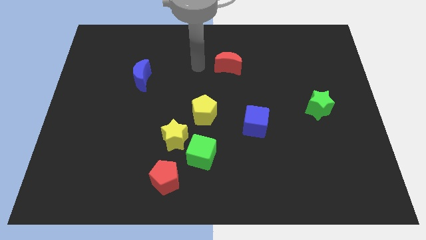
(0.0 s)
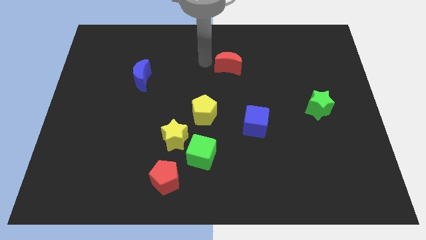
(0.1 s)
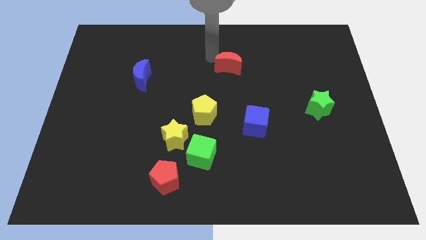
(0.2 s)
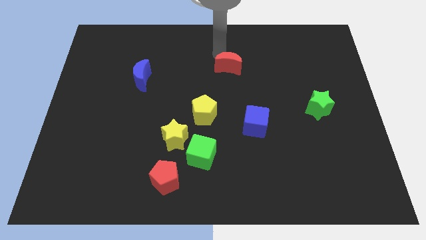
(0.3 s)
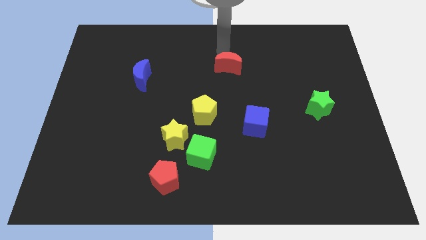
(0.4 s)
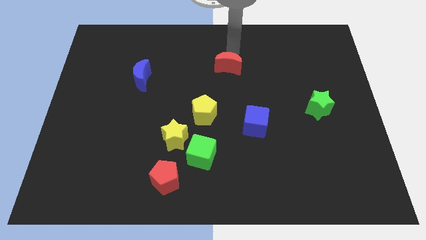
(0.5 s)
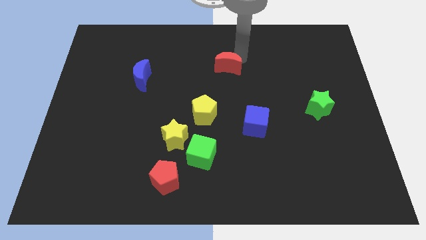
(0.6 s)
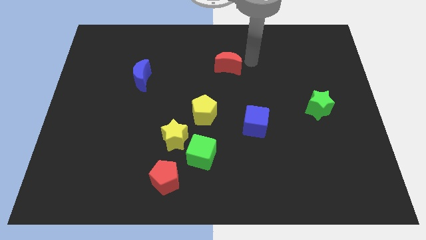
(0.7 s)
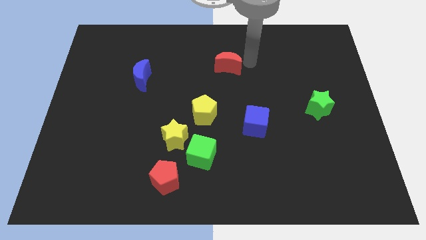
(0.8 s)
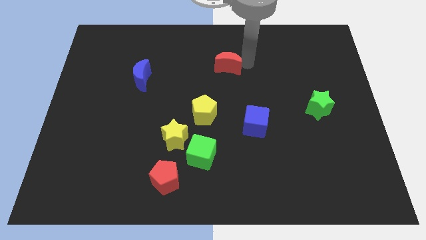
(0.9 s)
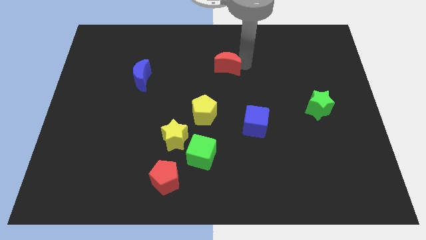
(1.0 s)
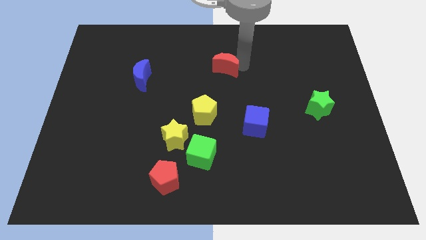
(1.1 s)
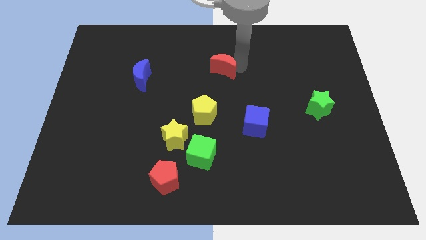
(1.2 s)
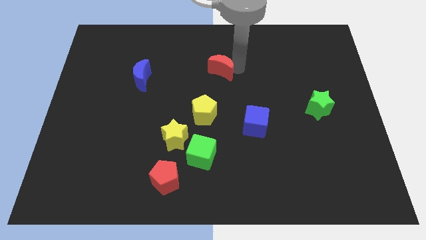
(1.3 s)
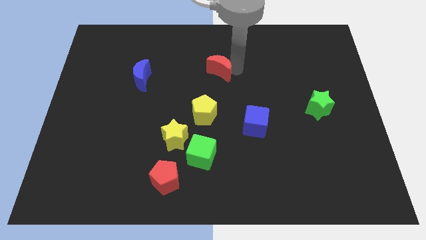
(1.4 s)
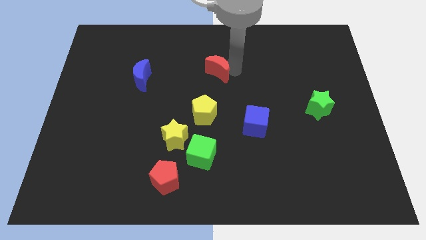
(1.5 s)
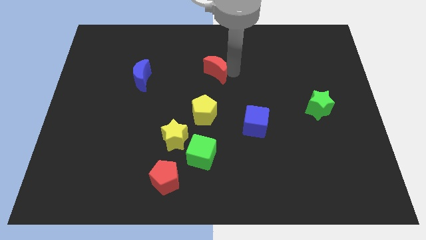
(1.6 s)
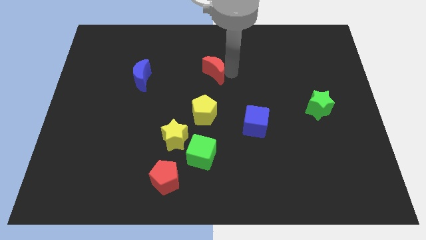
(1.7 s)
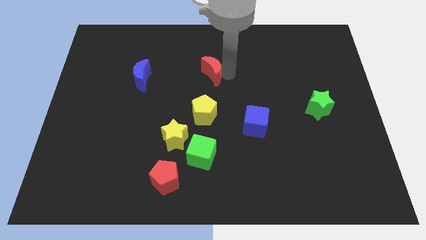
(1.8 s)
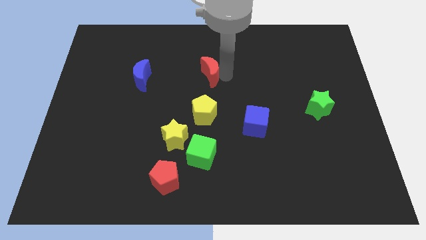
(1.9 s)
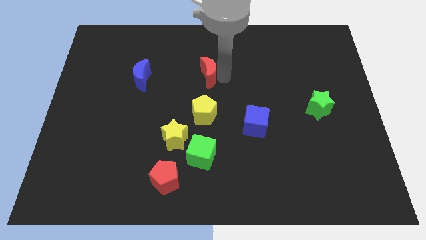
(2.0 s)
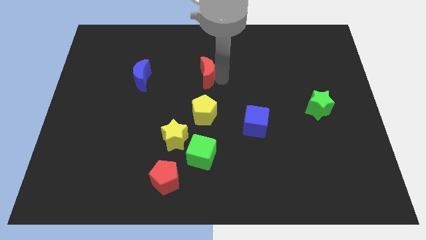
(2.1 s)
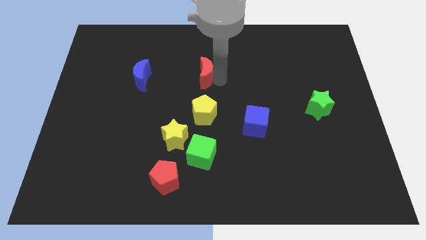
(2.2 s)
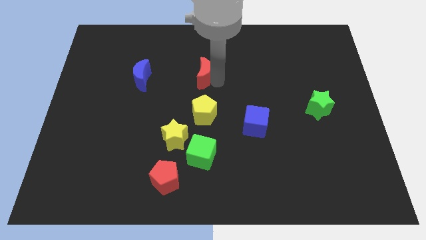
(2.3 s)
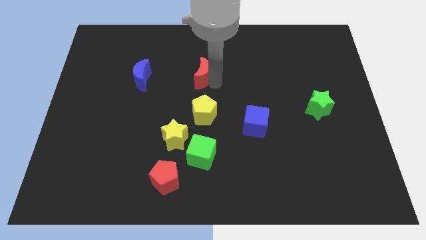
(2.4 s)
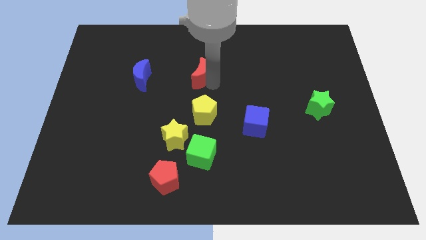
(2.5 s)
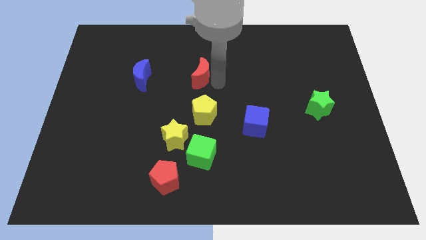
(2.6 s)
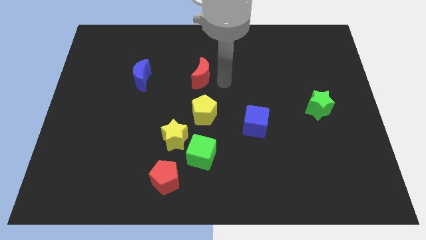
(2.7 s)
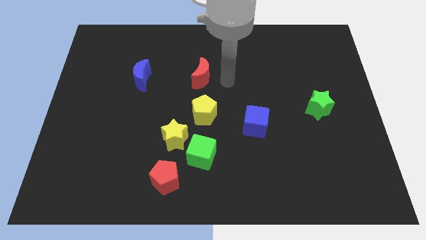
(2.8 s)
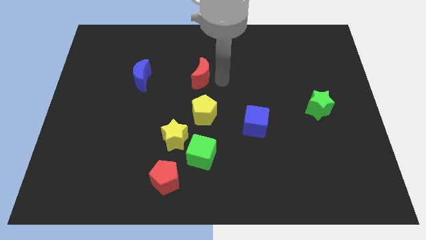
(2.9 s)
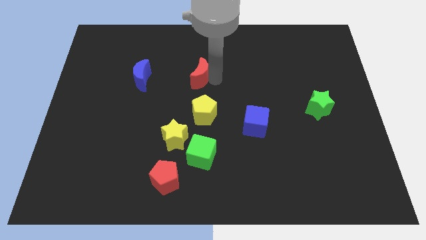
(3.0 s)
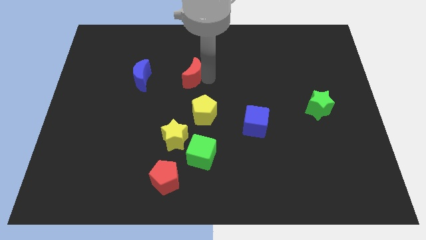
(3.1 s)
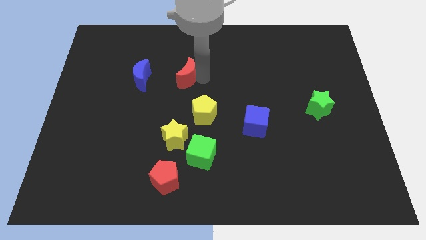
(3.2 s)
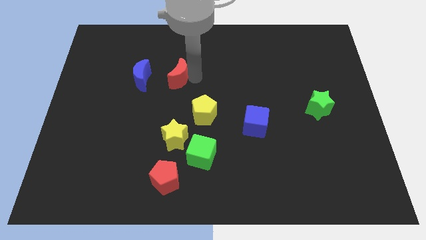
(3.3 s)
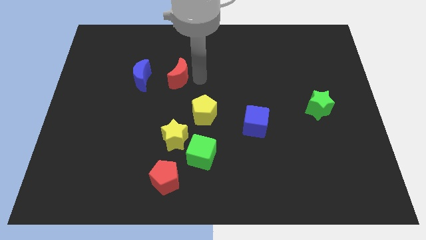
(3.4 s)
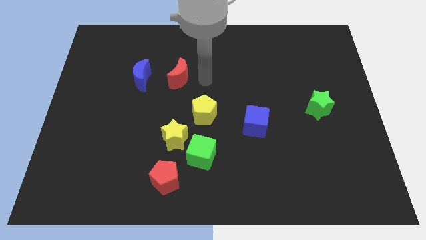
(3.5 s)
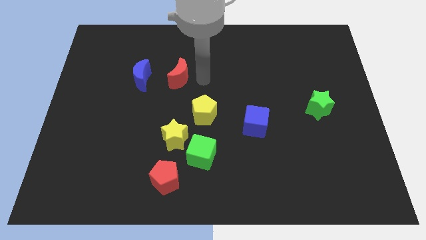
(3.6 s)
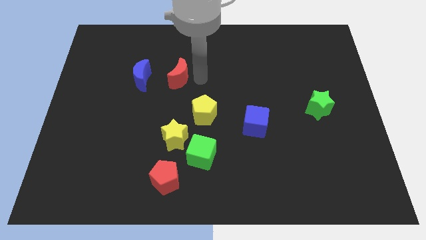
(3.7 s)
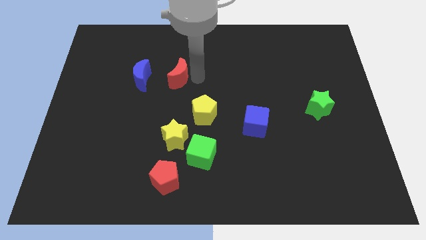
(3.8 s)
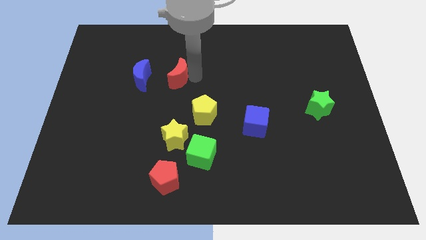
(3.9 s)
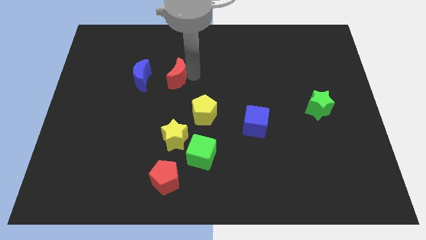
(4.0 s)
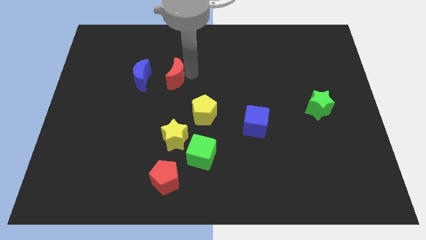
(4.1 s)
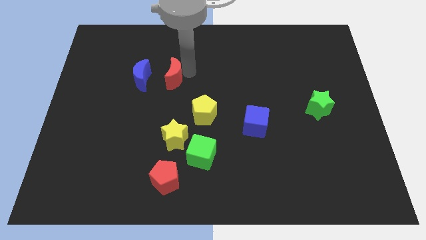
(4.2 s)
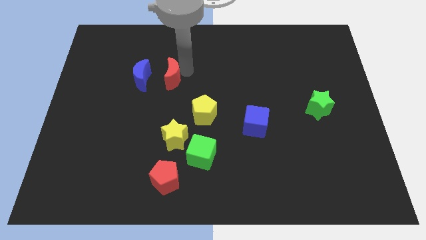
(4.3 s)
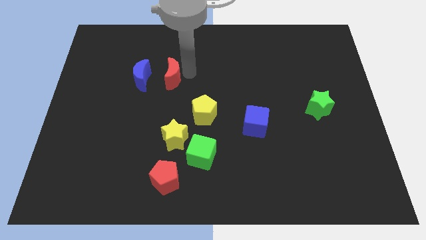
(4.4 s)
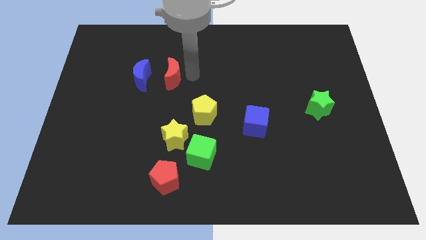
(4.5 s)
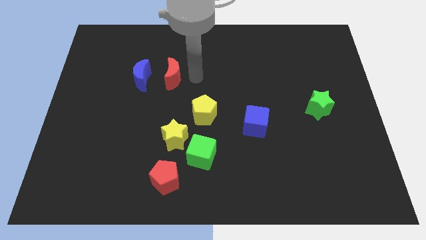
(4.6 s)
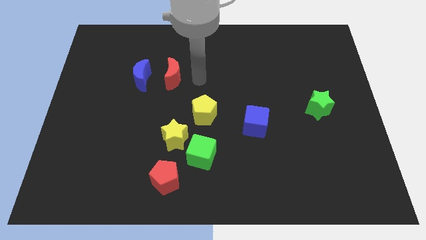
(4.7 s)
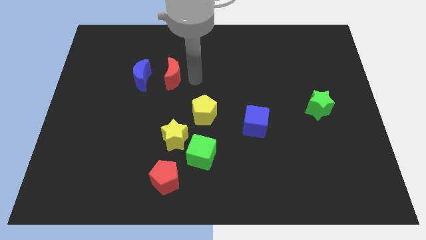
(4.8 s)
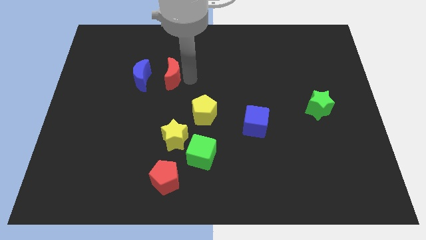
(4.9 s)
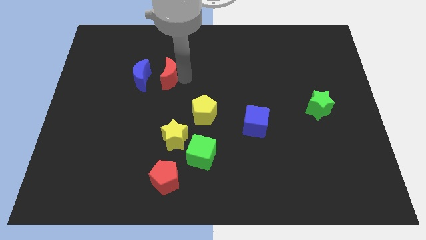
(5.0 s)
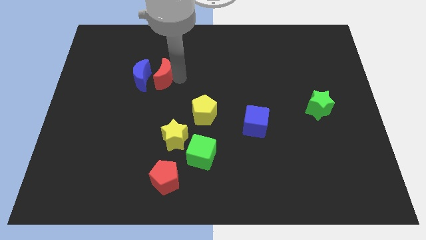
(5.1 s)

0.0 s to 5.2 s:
push the red moon next to the blue moon

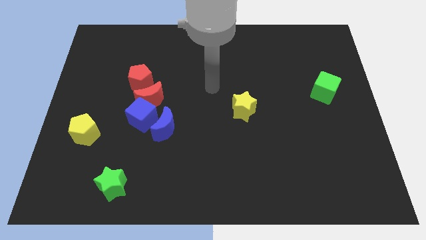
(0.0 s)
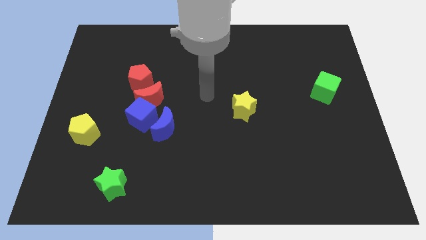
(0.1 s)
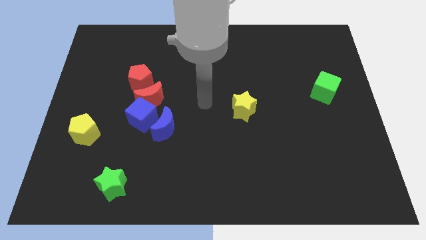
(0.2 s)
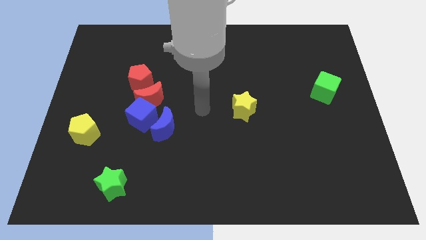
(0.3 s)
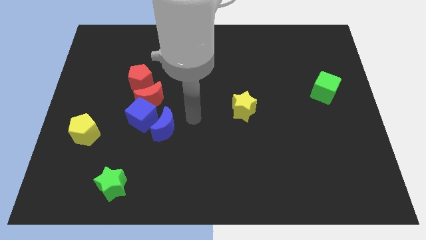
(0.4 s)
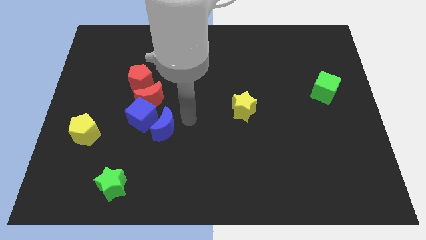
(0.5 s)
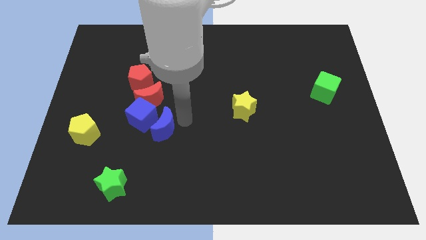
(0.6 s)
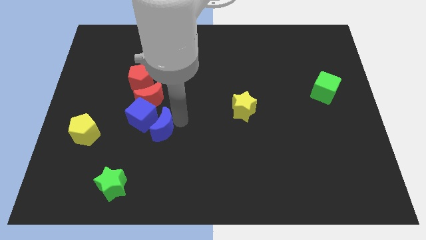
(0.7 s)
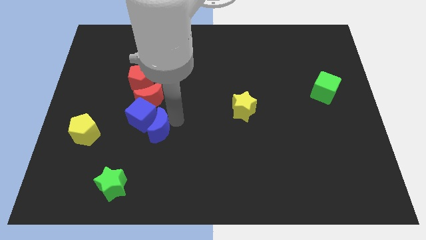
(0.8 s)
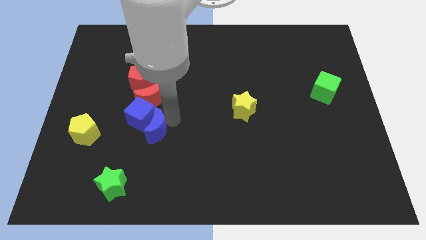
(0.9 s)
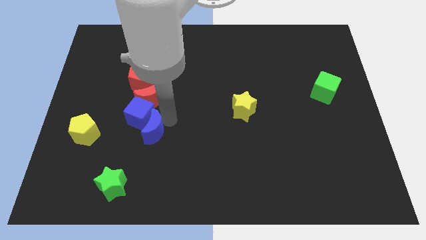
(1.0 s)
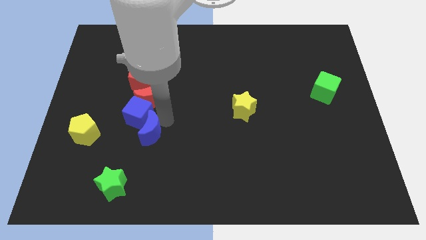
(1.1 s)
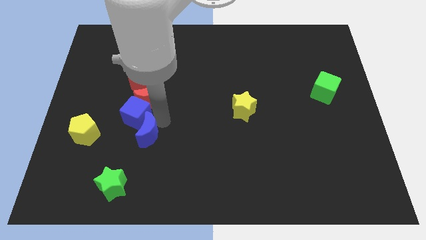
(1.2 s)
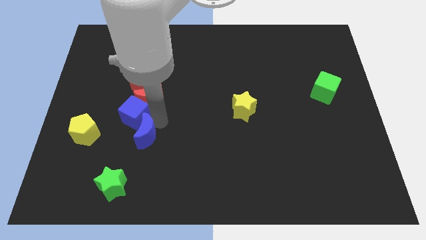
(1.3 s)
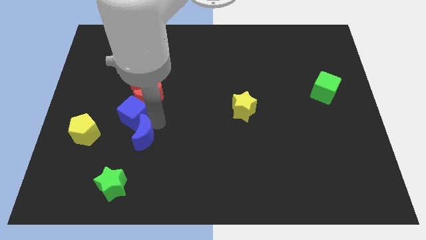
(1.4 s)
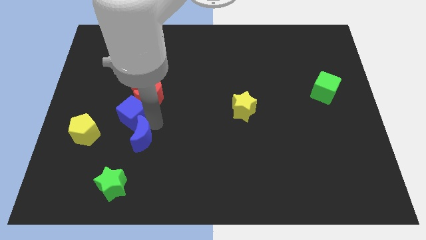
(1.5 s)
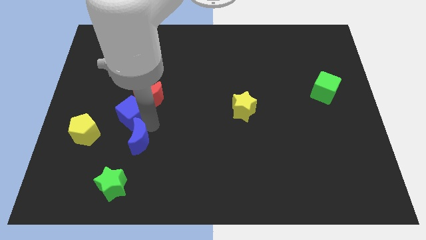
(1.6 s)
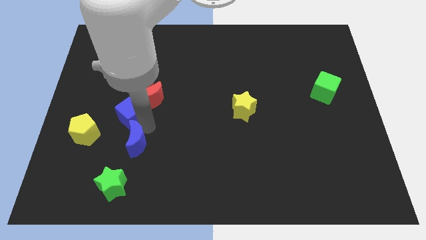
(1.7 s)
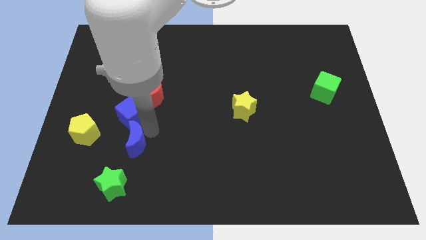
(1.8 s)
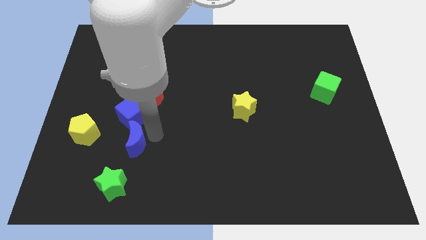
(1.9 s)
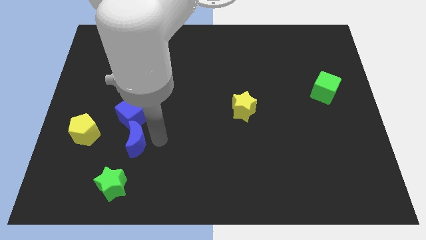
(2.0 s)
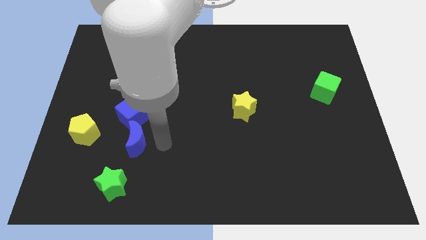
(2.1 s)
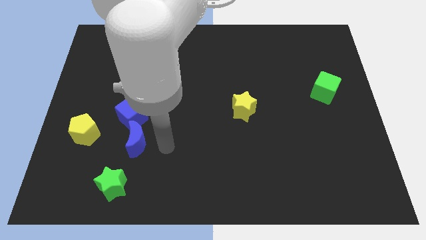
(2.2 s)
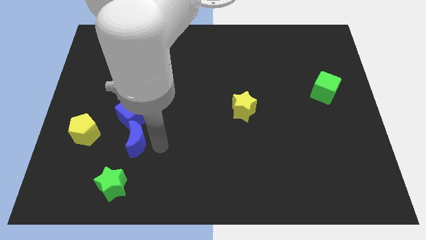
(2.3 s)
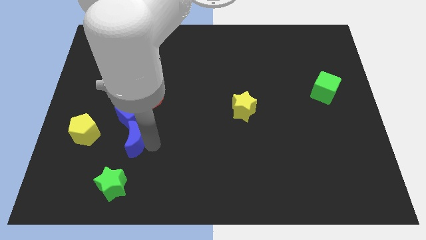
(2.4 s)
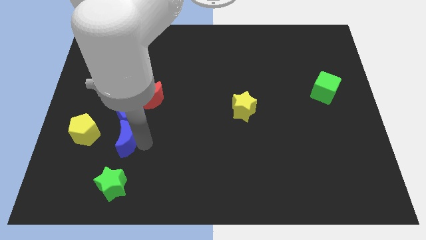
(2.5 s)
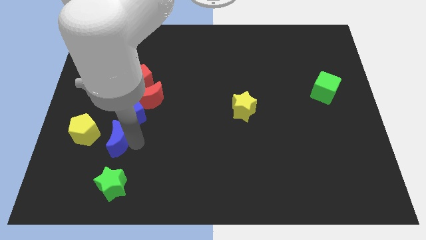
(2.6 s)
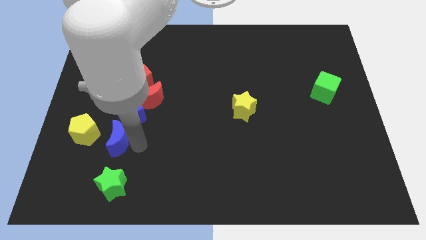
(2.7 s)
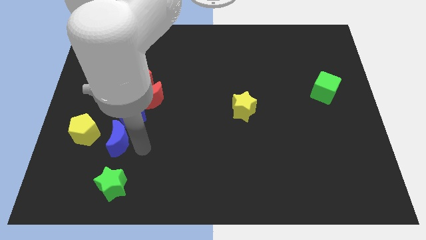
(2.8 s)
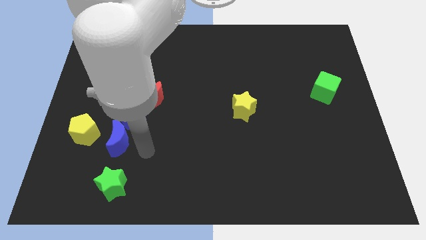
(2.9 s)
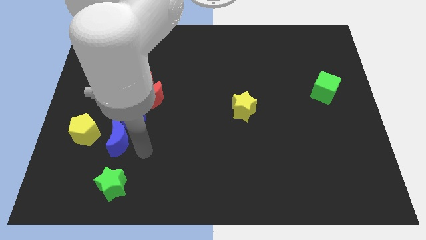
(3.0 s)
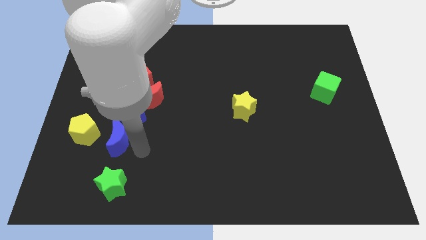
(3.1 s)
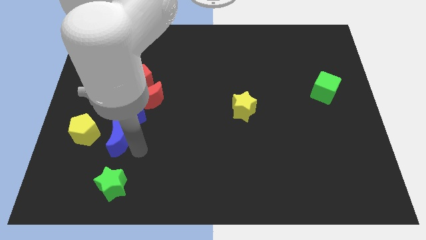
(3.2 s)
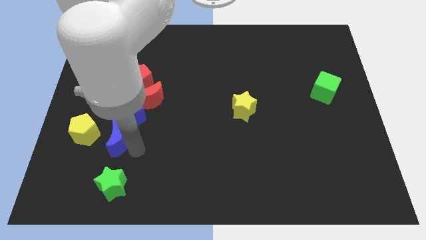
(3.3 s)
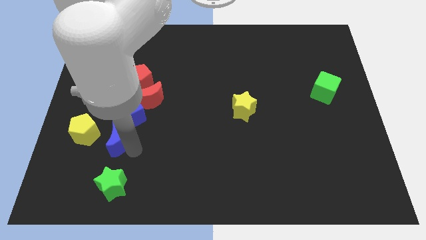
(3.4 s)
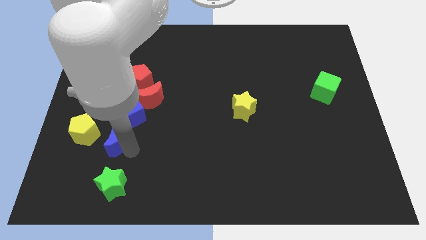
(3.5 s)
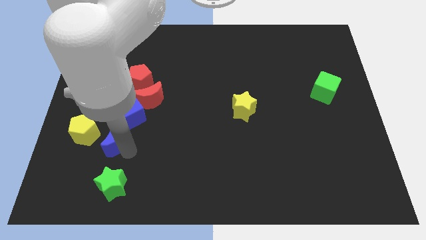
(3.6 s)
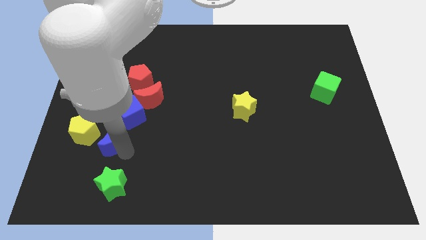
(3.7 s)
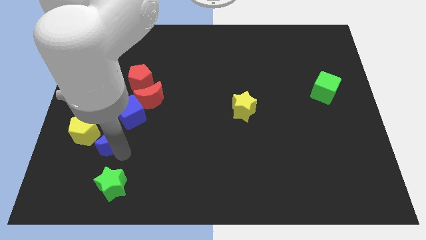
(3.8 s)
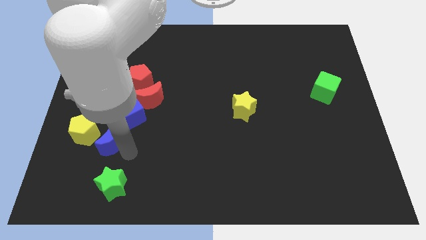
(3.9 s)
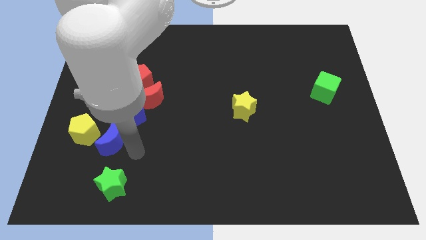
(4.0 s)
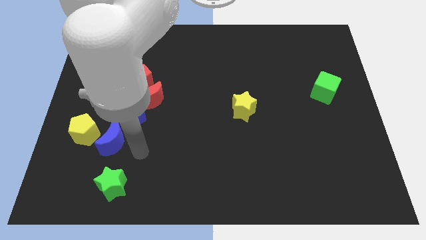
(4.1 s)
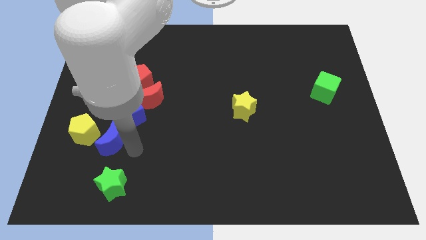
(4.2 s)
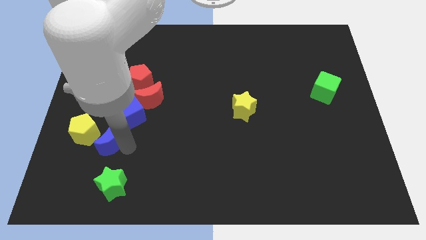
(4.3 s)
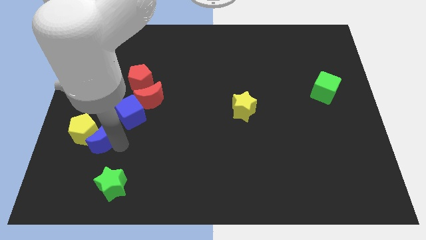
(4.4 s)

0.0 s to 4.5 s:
slide the blue moon close to the yellow pentagon
